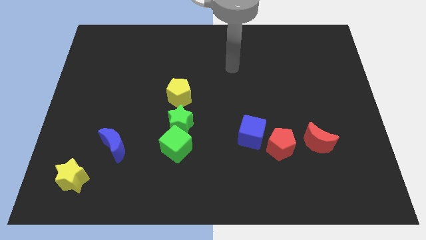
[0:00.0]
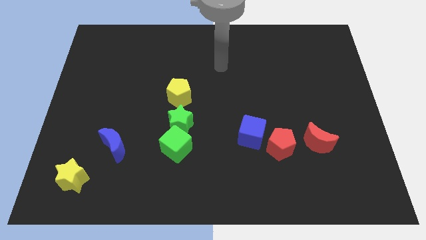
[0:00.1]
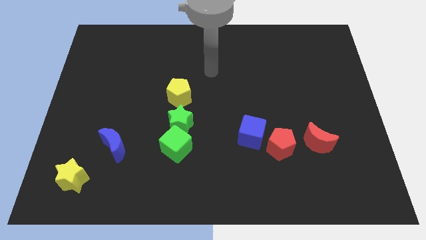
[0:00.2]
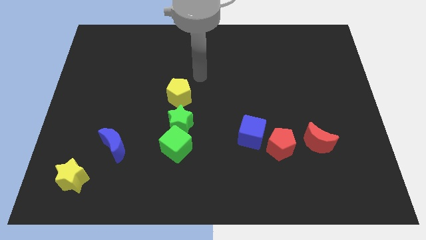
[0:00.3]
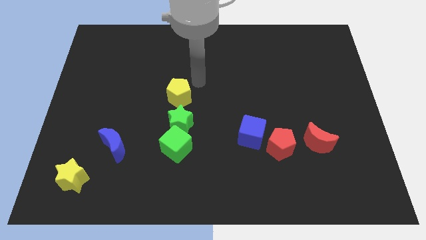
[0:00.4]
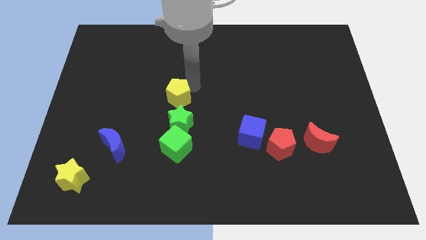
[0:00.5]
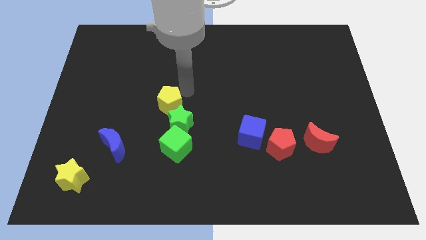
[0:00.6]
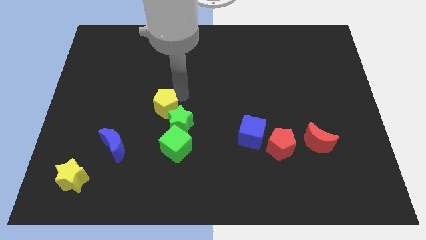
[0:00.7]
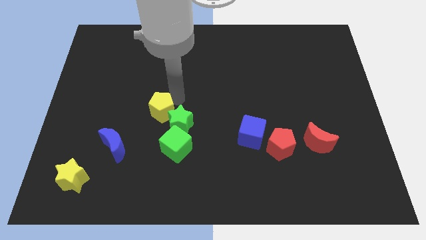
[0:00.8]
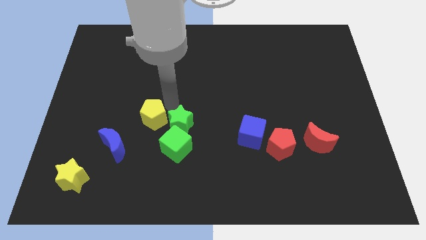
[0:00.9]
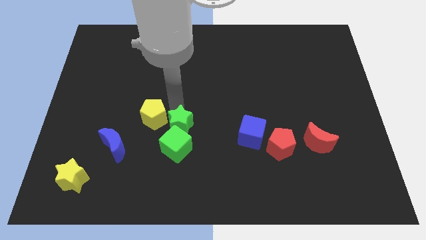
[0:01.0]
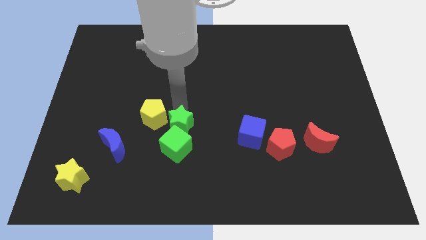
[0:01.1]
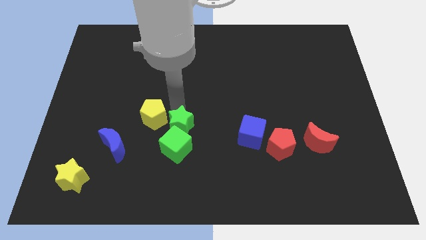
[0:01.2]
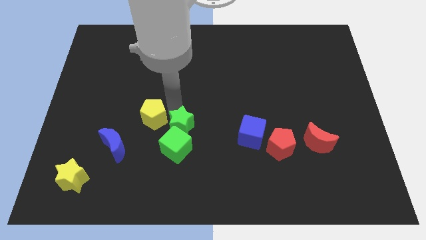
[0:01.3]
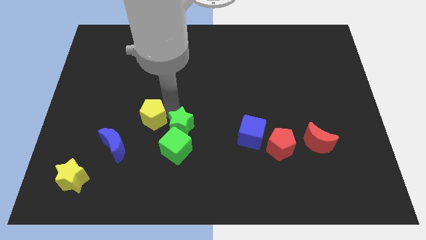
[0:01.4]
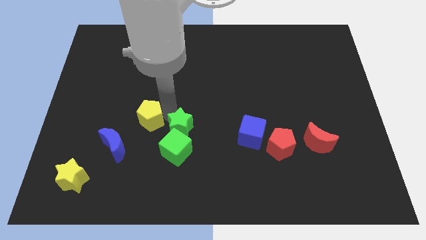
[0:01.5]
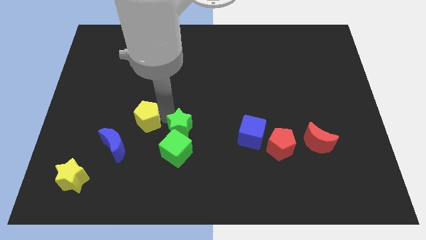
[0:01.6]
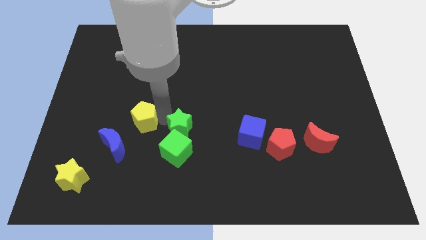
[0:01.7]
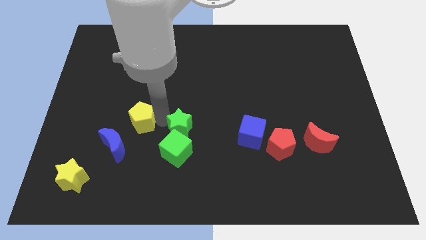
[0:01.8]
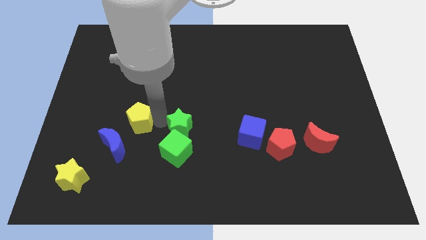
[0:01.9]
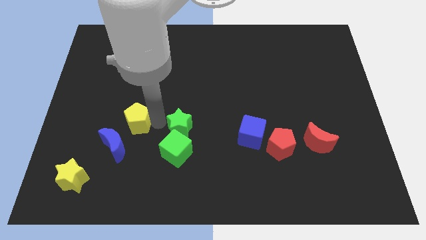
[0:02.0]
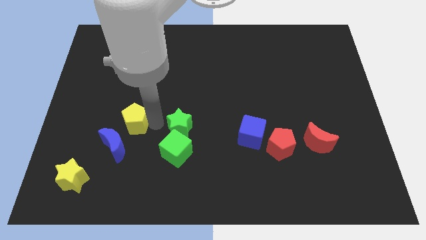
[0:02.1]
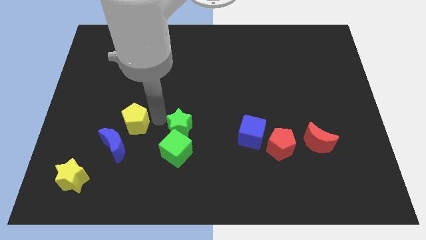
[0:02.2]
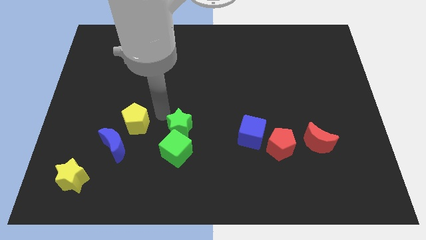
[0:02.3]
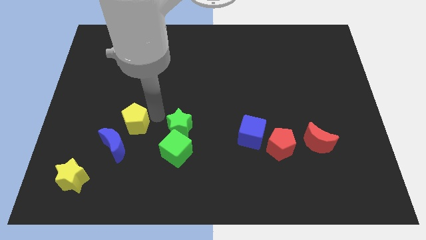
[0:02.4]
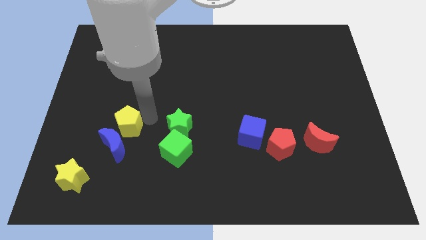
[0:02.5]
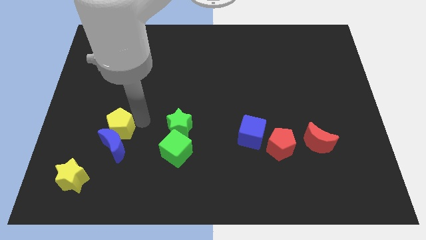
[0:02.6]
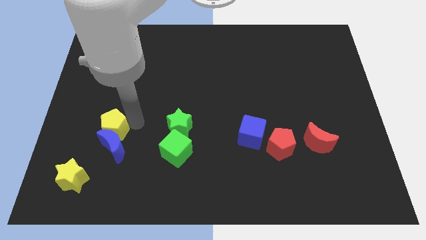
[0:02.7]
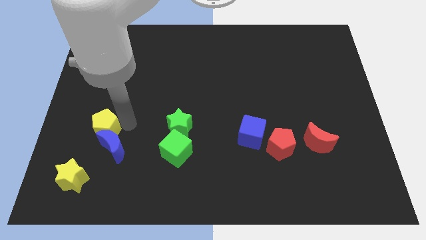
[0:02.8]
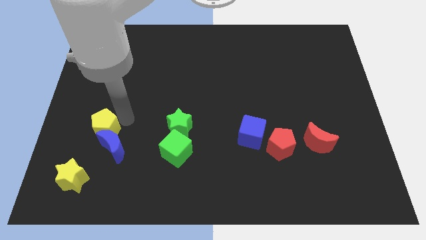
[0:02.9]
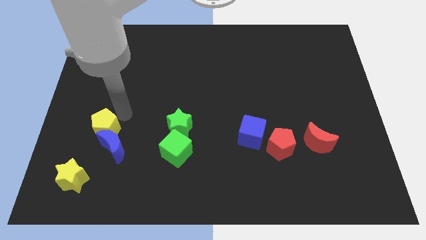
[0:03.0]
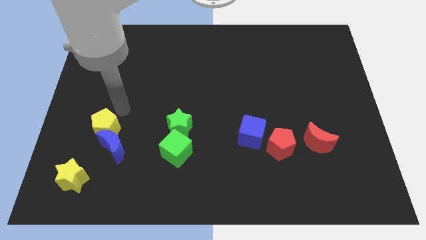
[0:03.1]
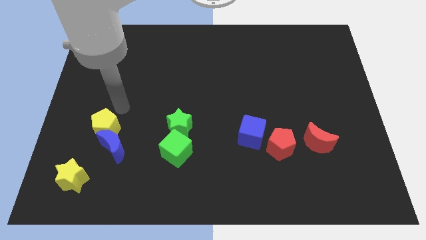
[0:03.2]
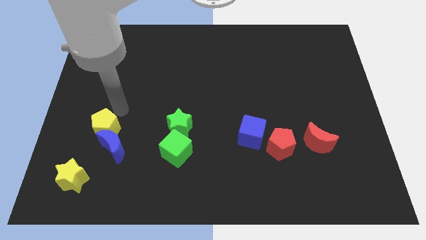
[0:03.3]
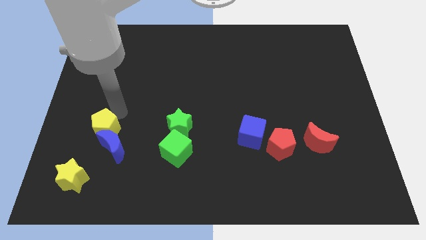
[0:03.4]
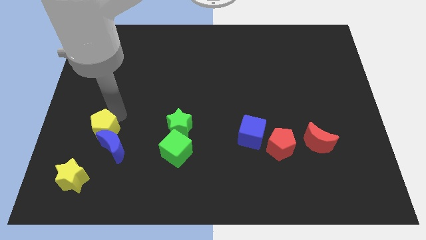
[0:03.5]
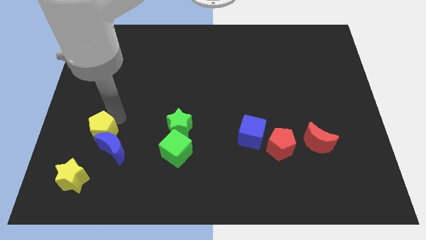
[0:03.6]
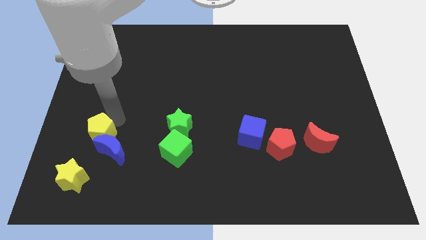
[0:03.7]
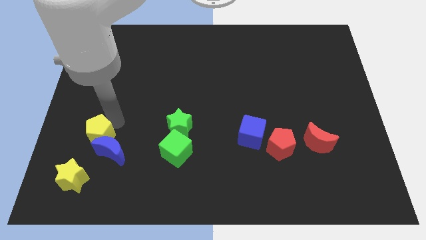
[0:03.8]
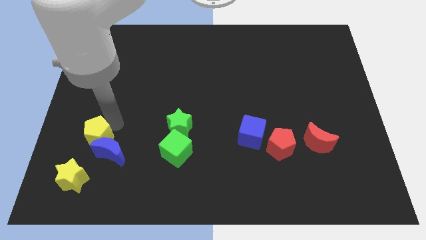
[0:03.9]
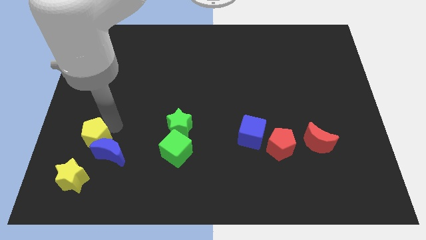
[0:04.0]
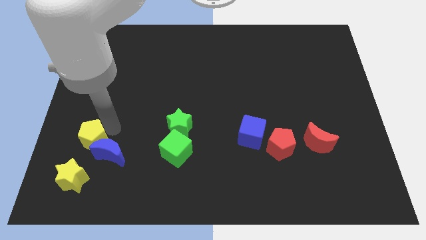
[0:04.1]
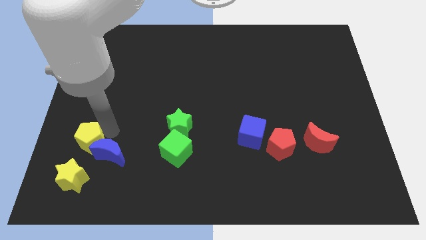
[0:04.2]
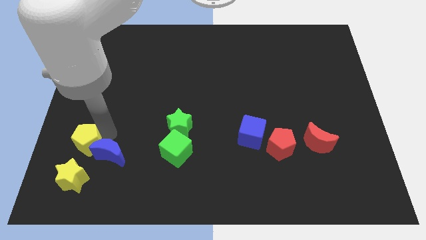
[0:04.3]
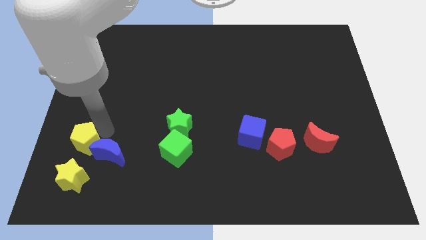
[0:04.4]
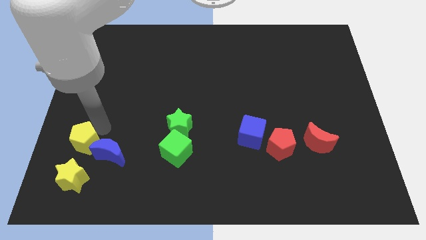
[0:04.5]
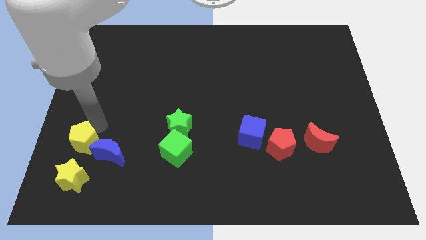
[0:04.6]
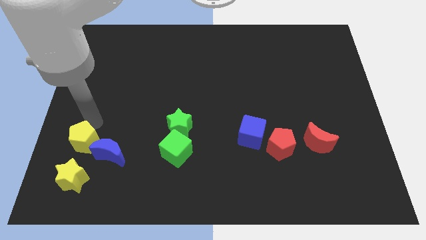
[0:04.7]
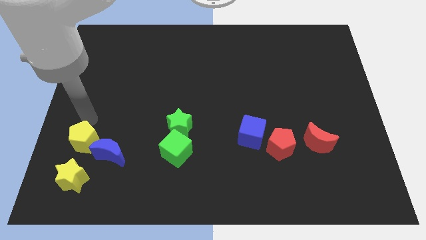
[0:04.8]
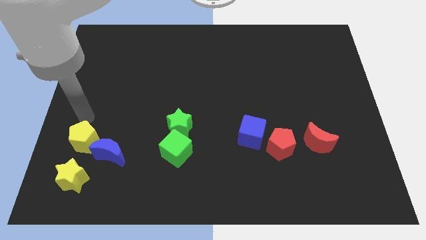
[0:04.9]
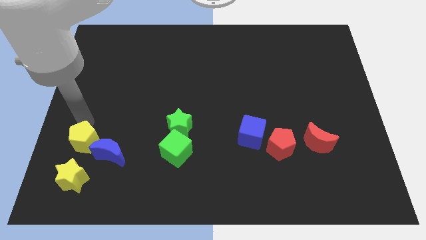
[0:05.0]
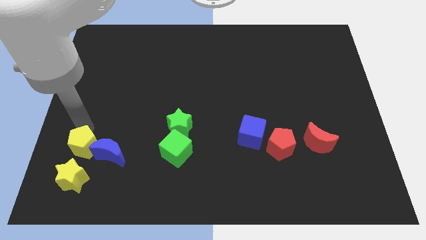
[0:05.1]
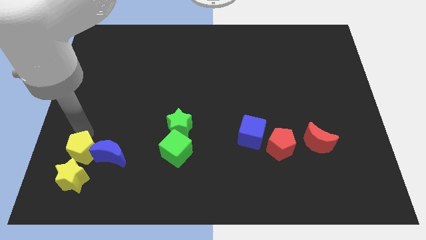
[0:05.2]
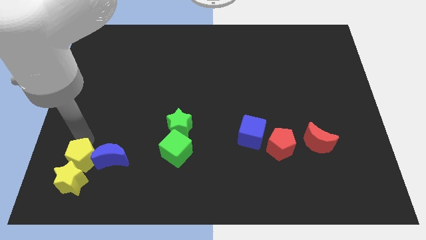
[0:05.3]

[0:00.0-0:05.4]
slide the yellow pentagon close to the yellow star

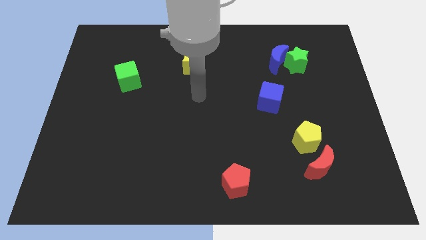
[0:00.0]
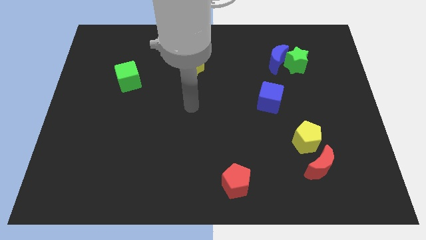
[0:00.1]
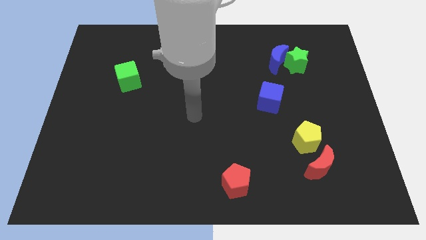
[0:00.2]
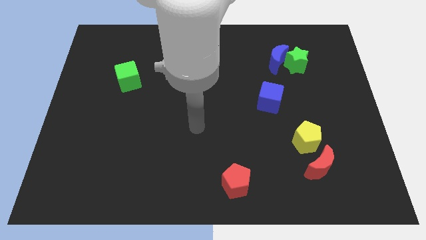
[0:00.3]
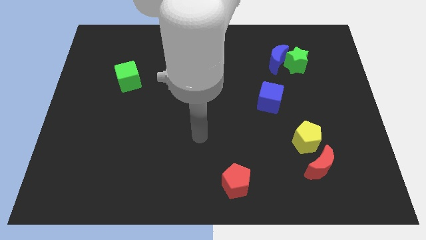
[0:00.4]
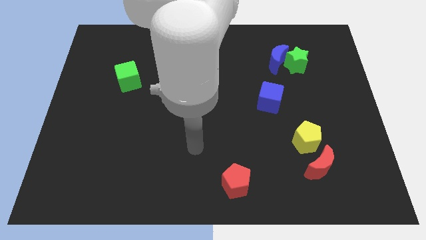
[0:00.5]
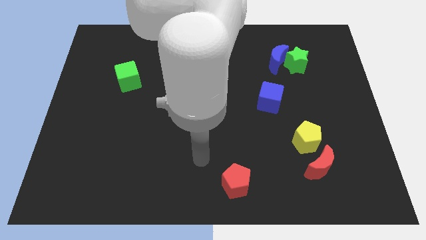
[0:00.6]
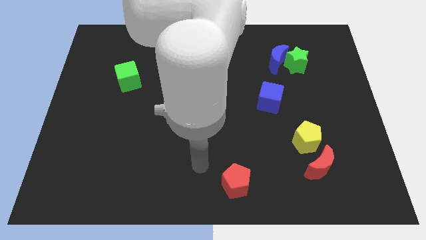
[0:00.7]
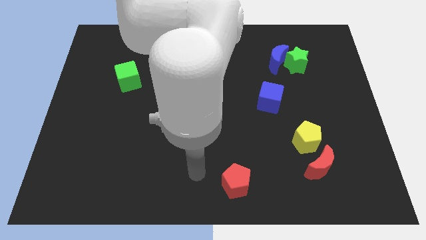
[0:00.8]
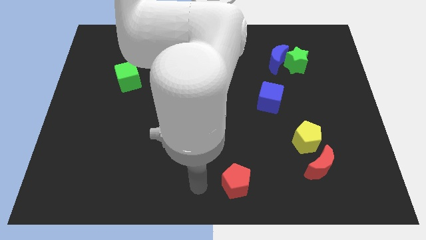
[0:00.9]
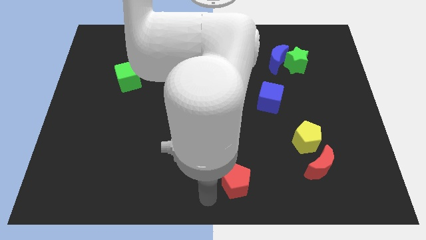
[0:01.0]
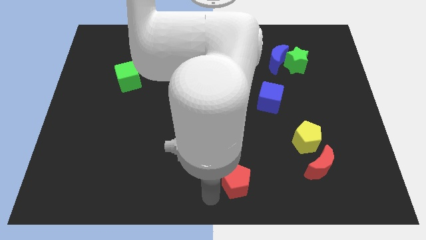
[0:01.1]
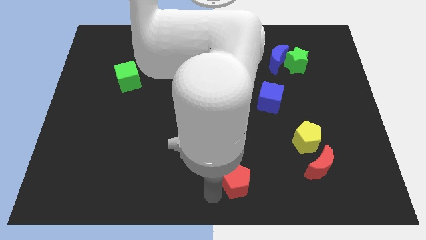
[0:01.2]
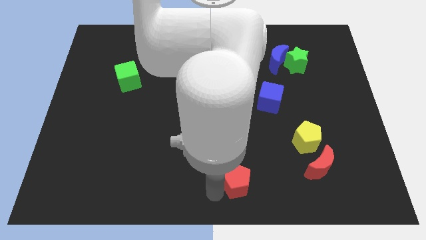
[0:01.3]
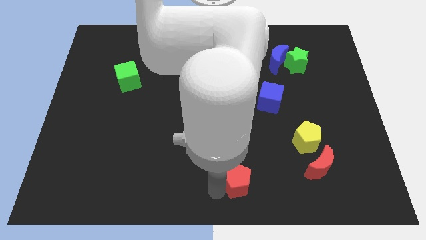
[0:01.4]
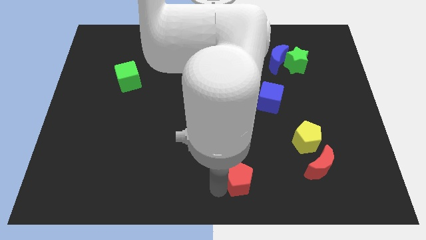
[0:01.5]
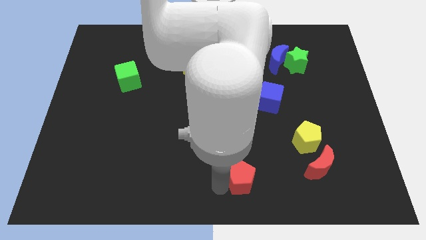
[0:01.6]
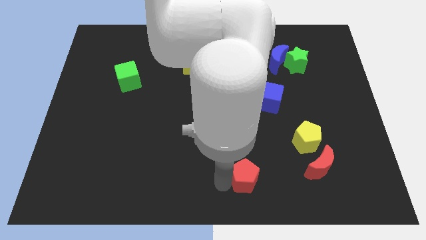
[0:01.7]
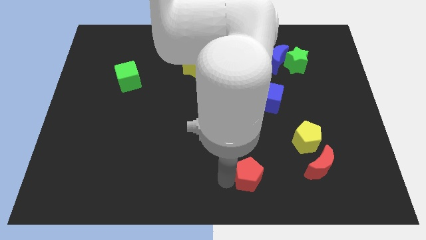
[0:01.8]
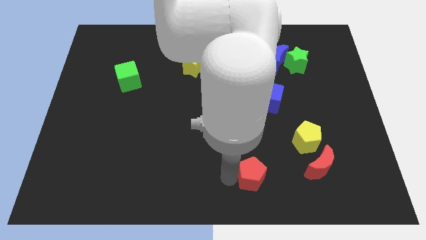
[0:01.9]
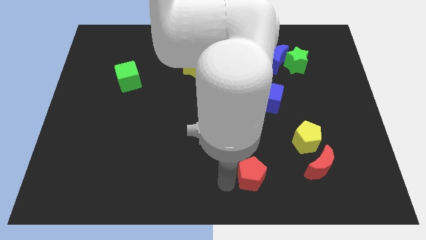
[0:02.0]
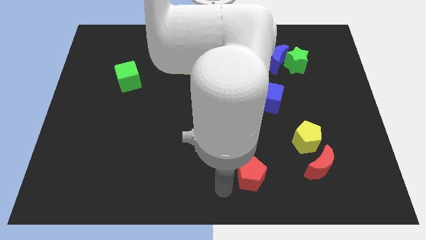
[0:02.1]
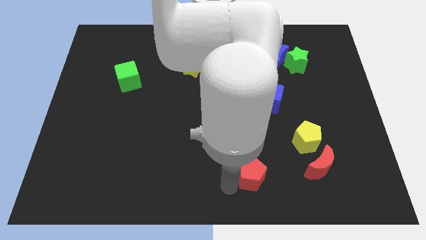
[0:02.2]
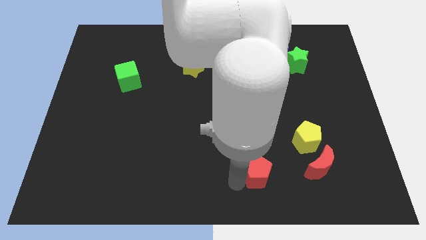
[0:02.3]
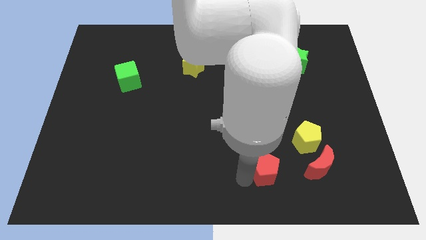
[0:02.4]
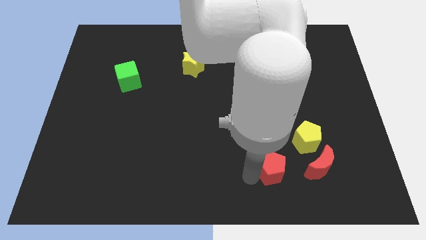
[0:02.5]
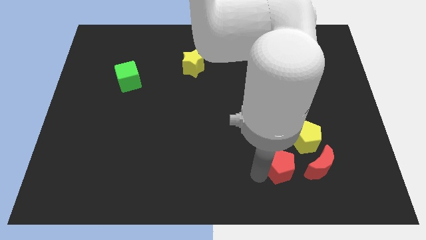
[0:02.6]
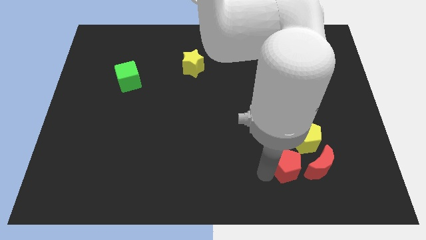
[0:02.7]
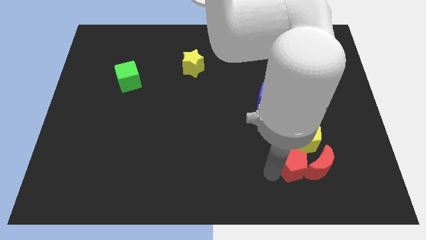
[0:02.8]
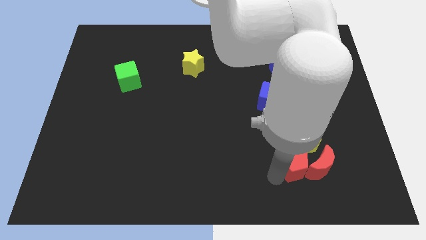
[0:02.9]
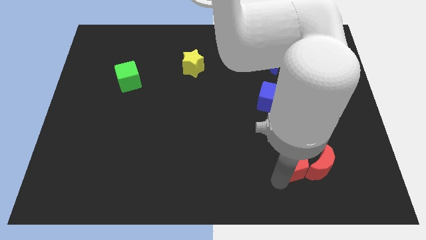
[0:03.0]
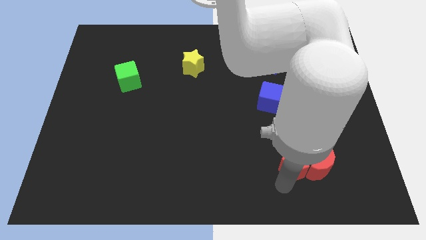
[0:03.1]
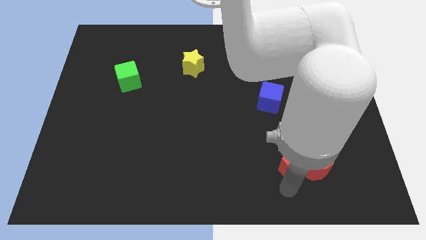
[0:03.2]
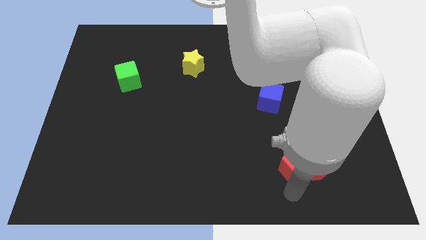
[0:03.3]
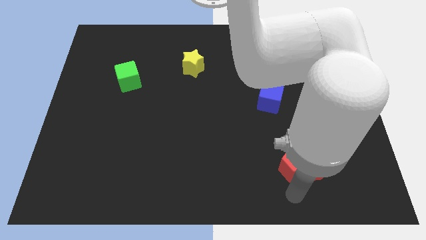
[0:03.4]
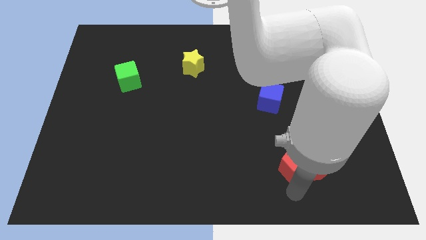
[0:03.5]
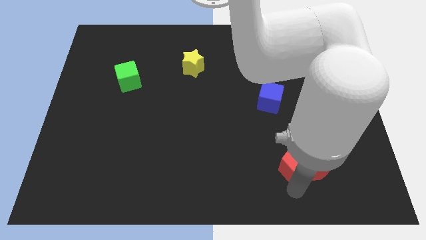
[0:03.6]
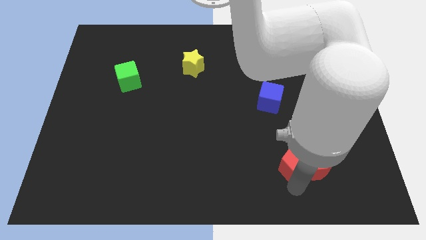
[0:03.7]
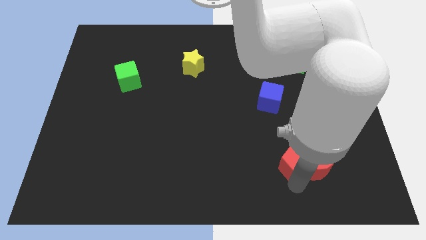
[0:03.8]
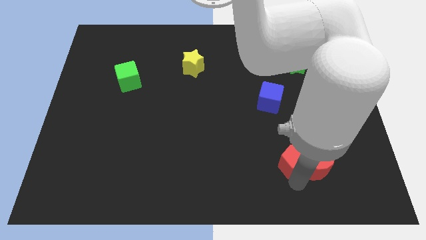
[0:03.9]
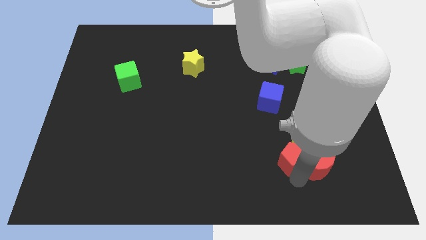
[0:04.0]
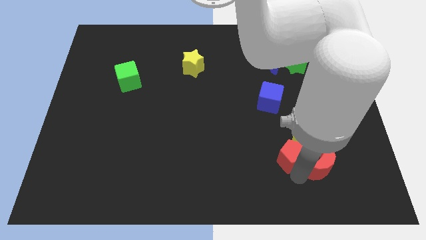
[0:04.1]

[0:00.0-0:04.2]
put the red pentagon next to the yellow pentagon
